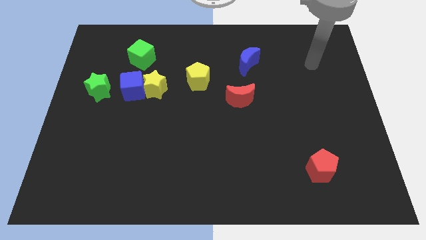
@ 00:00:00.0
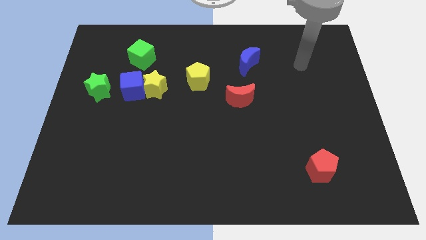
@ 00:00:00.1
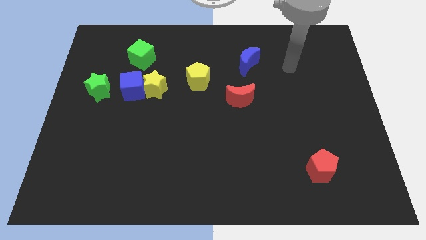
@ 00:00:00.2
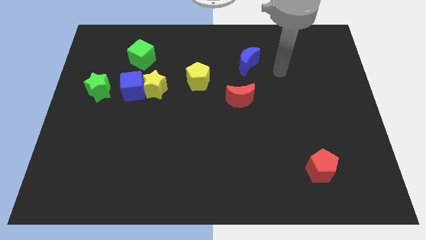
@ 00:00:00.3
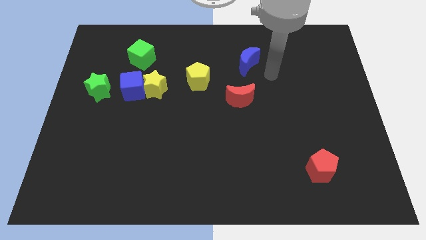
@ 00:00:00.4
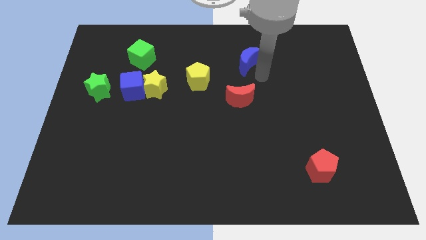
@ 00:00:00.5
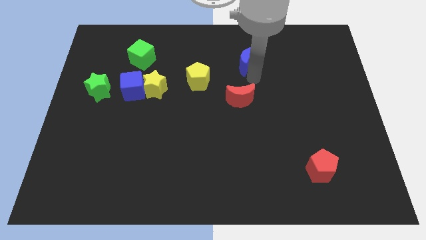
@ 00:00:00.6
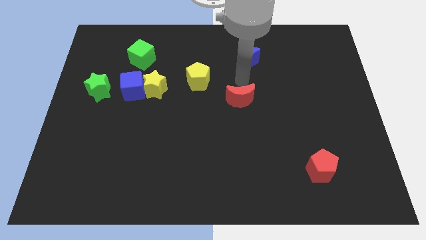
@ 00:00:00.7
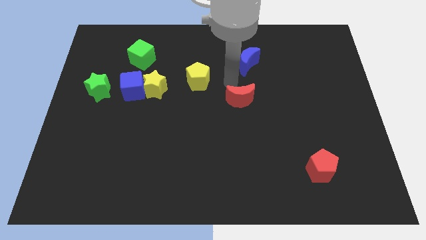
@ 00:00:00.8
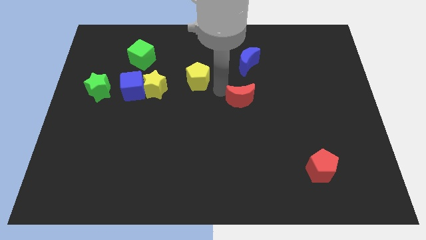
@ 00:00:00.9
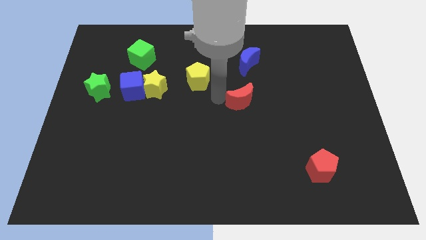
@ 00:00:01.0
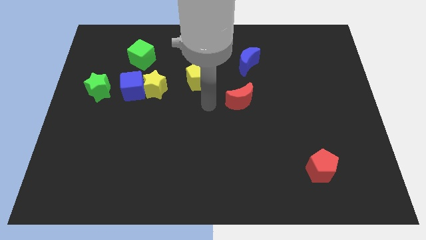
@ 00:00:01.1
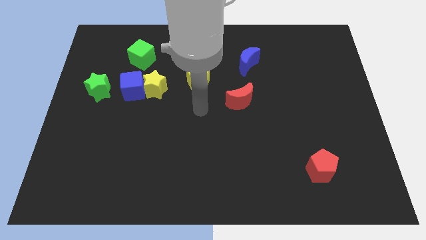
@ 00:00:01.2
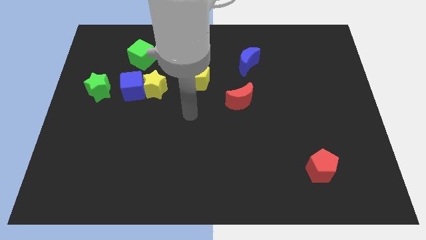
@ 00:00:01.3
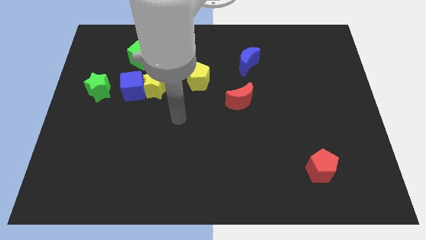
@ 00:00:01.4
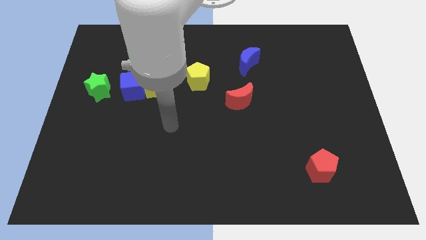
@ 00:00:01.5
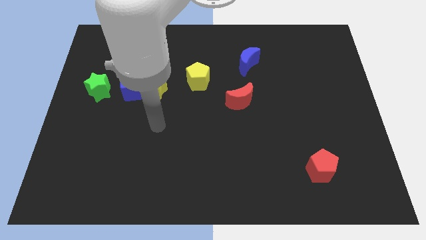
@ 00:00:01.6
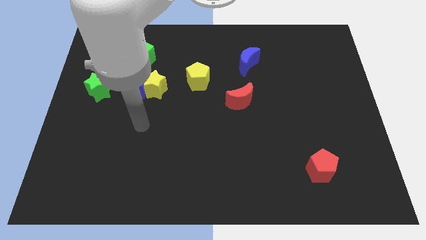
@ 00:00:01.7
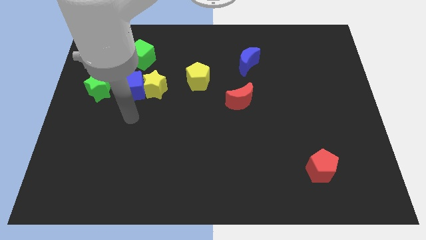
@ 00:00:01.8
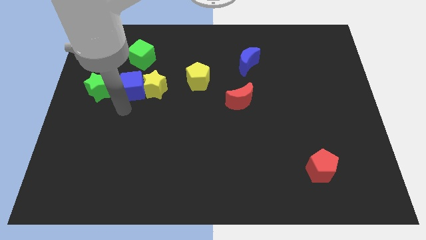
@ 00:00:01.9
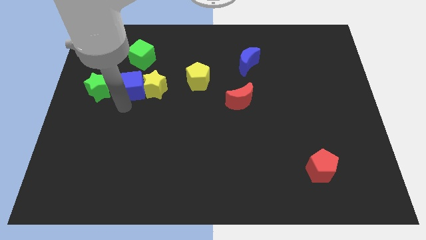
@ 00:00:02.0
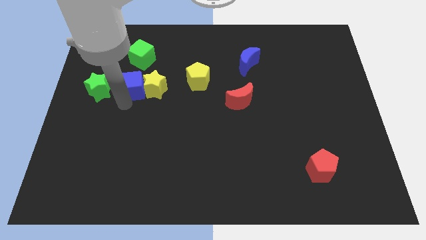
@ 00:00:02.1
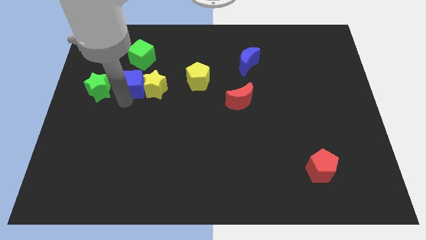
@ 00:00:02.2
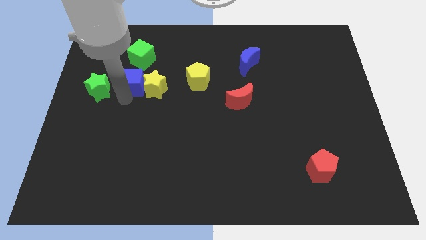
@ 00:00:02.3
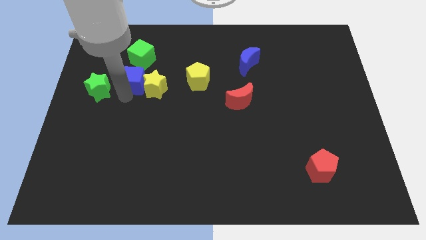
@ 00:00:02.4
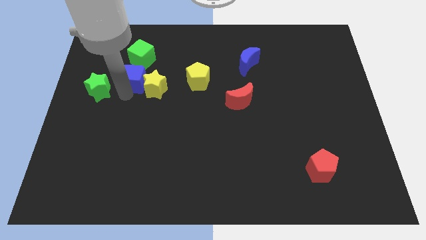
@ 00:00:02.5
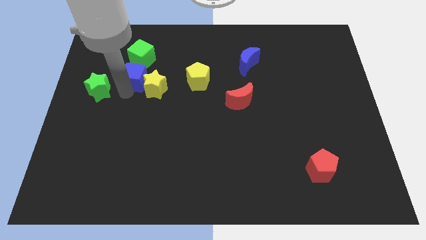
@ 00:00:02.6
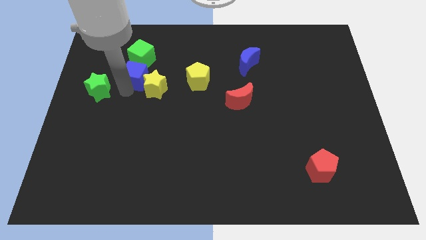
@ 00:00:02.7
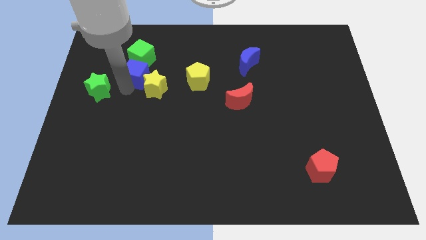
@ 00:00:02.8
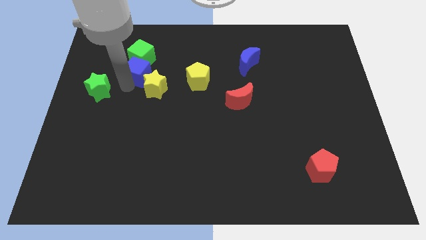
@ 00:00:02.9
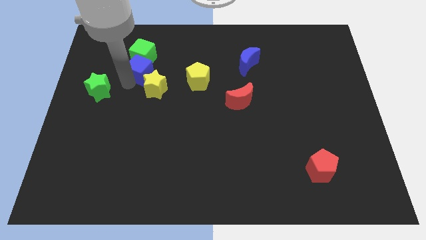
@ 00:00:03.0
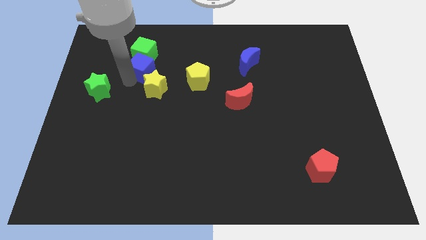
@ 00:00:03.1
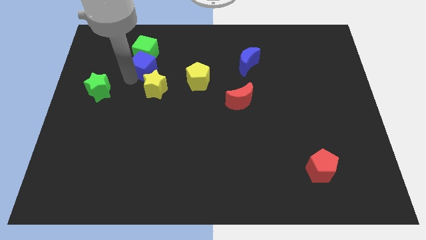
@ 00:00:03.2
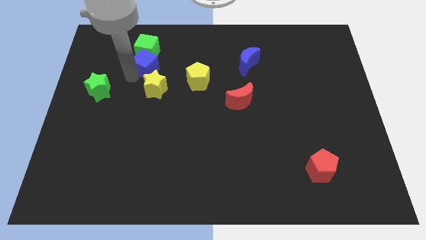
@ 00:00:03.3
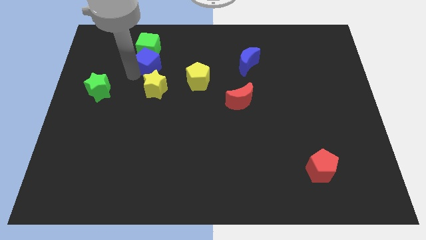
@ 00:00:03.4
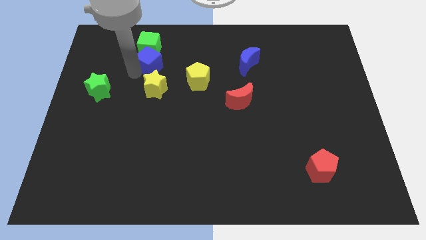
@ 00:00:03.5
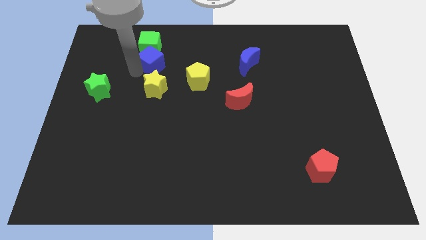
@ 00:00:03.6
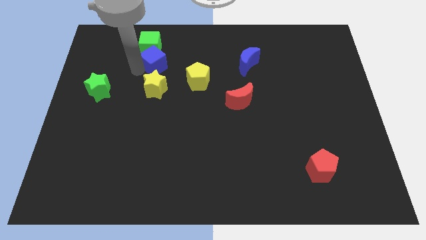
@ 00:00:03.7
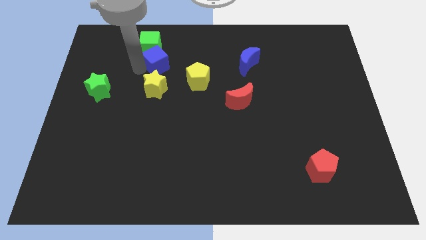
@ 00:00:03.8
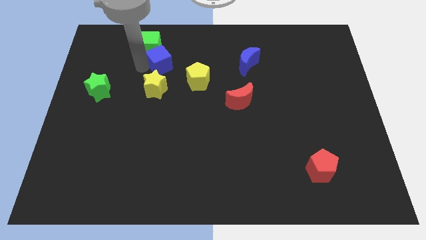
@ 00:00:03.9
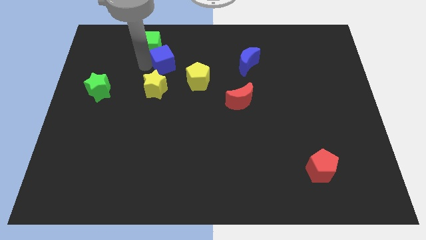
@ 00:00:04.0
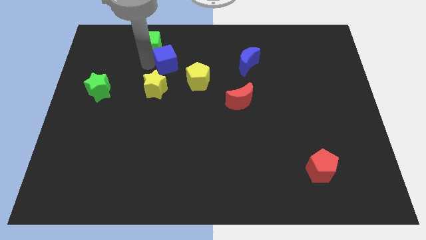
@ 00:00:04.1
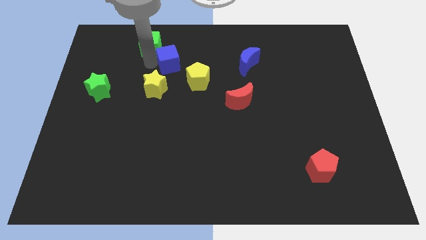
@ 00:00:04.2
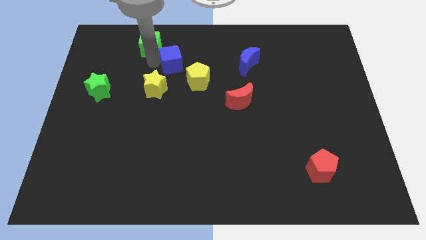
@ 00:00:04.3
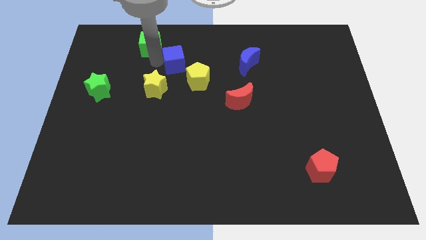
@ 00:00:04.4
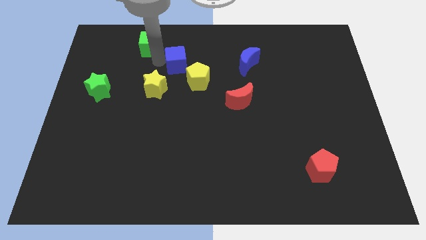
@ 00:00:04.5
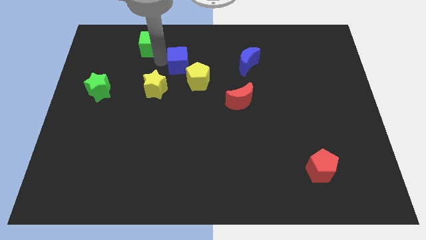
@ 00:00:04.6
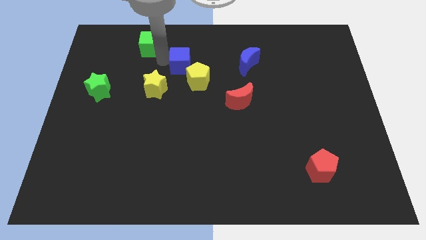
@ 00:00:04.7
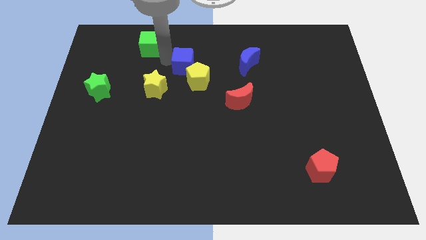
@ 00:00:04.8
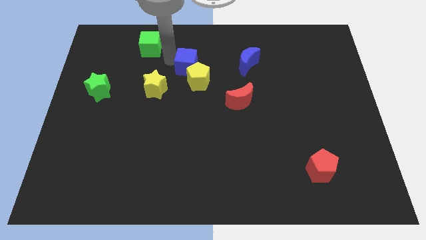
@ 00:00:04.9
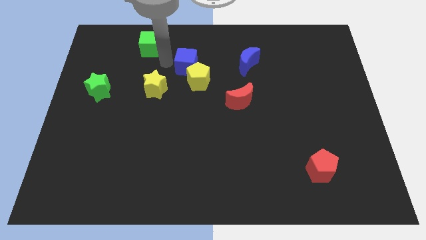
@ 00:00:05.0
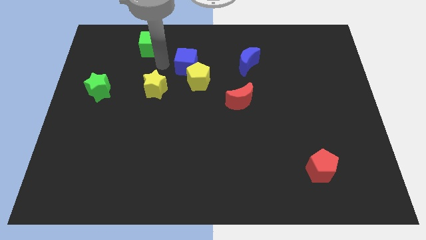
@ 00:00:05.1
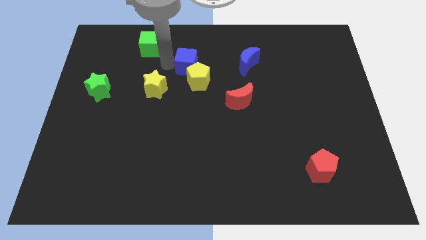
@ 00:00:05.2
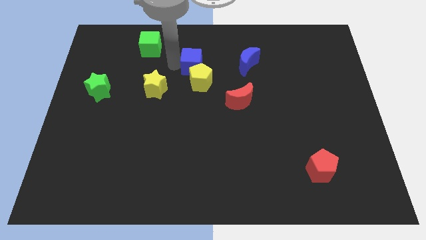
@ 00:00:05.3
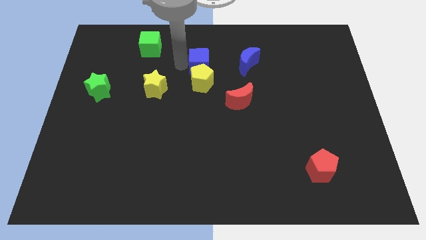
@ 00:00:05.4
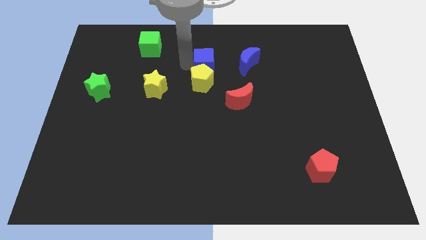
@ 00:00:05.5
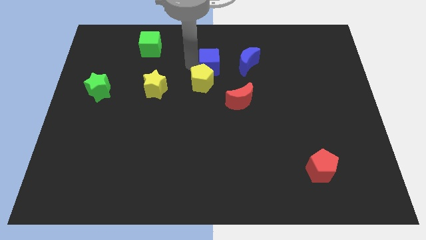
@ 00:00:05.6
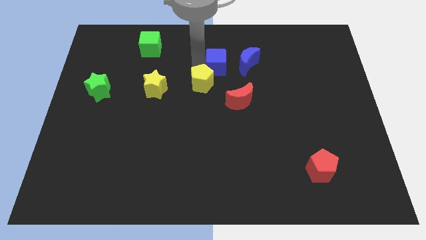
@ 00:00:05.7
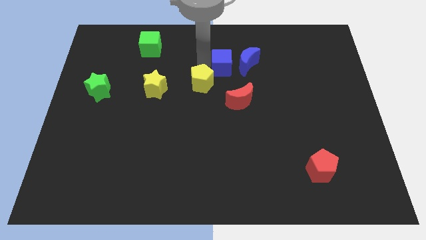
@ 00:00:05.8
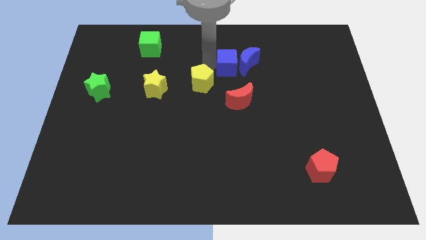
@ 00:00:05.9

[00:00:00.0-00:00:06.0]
slide the blue cube close to the blue moon

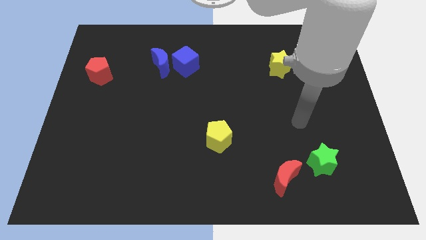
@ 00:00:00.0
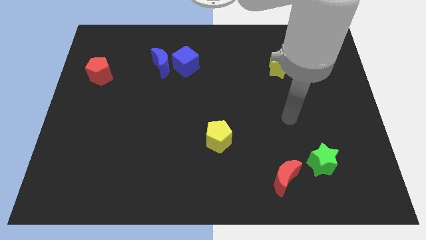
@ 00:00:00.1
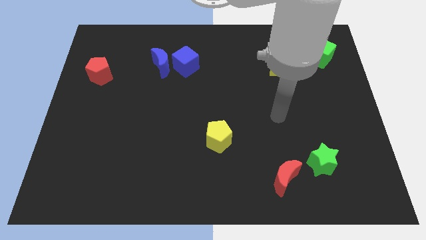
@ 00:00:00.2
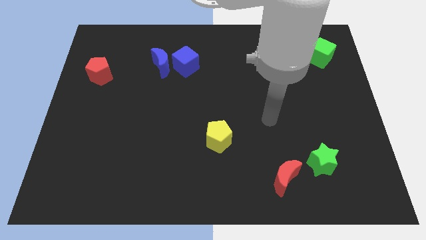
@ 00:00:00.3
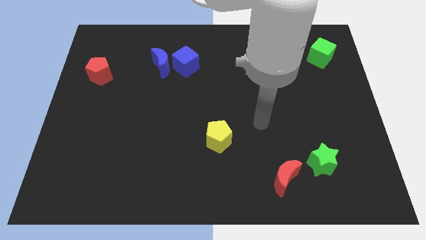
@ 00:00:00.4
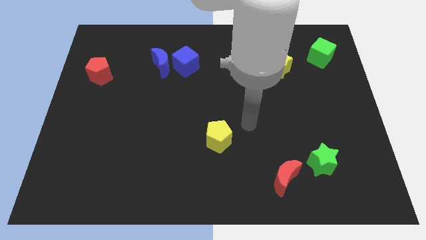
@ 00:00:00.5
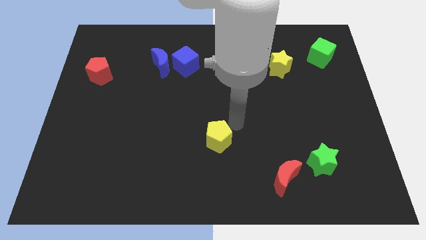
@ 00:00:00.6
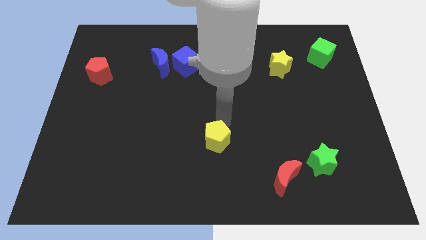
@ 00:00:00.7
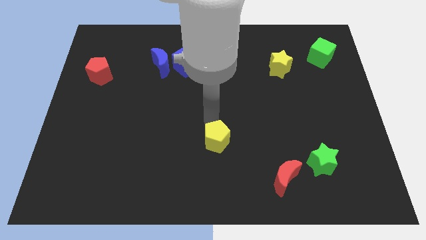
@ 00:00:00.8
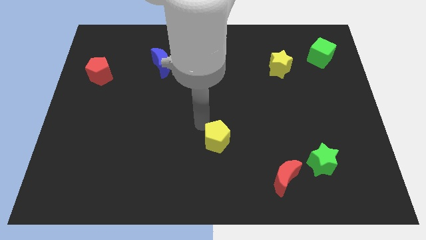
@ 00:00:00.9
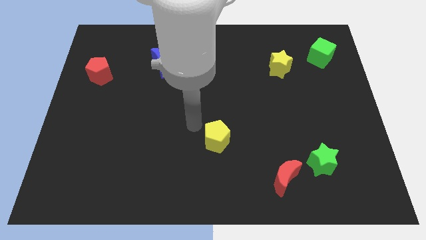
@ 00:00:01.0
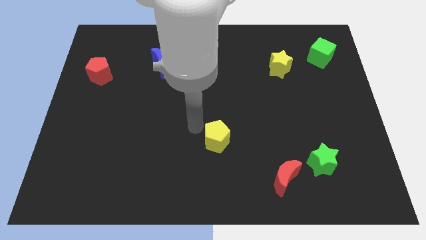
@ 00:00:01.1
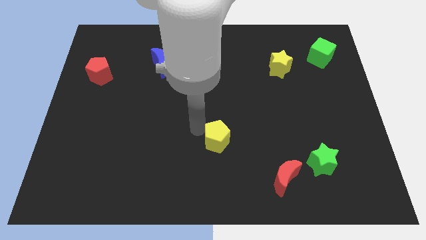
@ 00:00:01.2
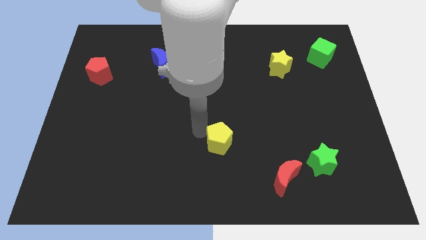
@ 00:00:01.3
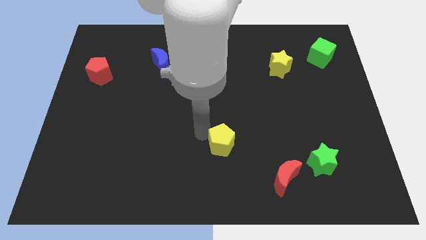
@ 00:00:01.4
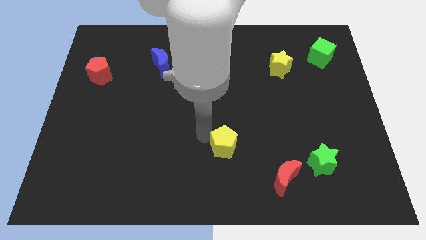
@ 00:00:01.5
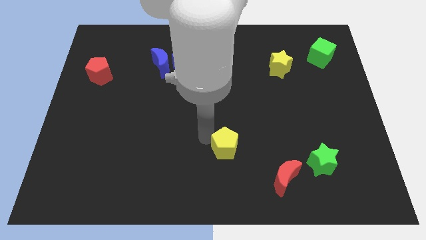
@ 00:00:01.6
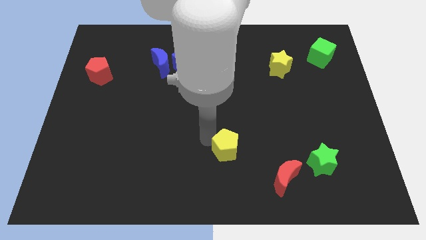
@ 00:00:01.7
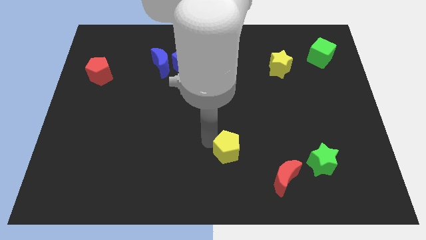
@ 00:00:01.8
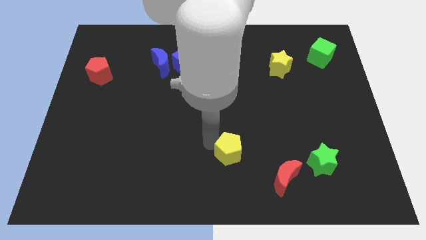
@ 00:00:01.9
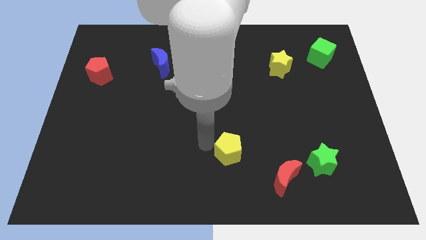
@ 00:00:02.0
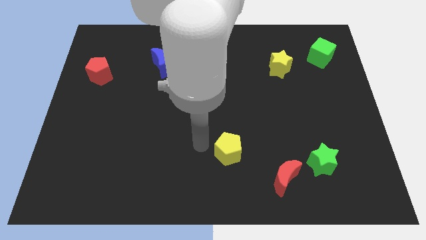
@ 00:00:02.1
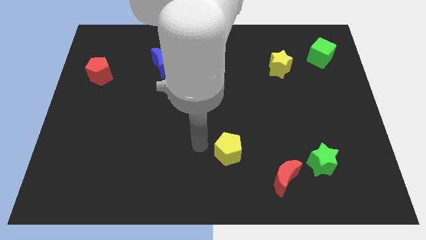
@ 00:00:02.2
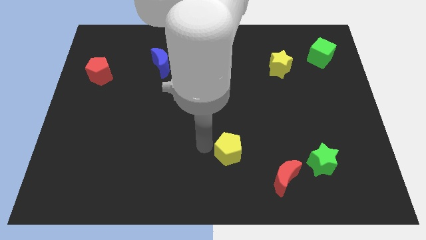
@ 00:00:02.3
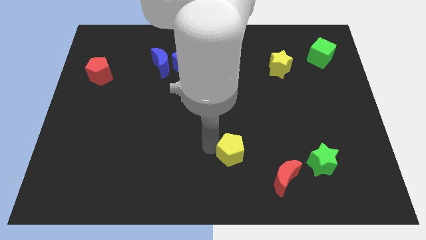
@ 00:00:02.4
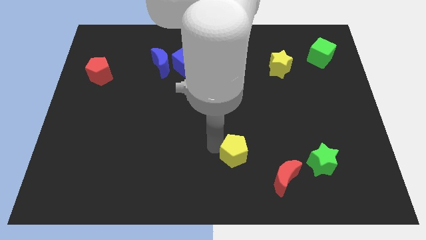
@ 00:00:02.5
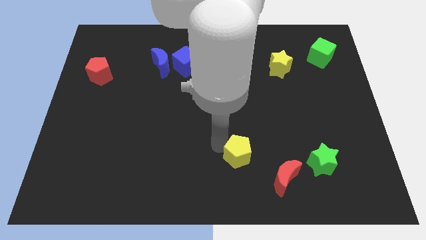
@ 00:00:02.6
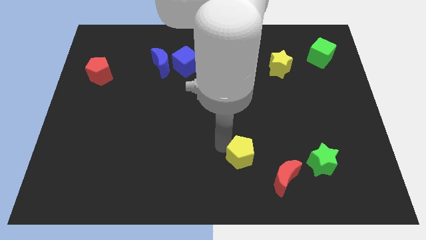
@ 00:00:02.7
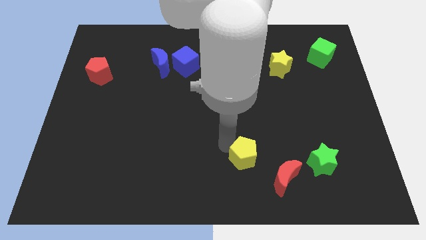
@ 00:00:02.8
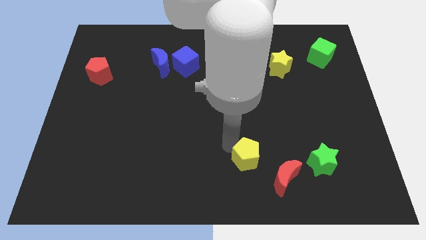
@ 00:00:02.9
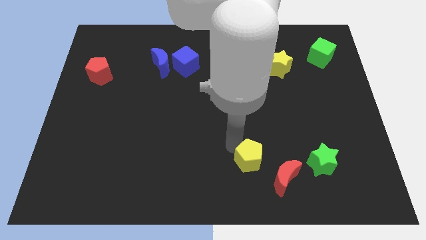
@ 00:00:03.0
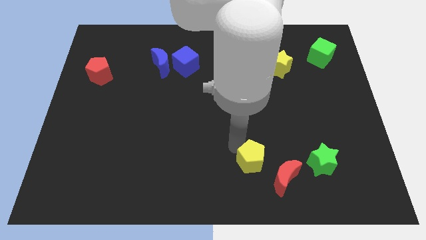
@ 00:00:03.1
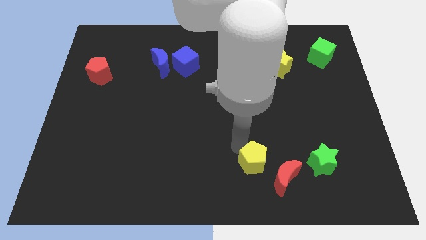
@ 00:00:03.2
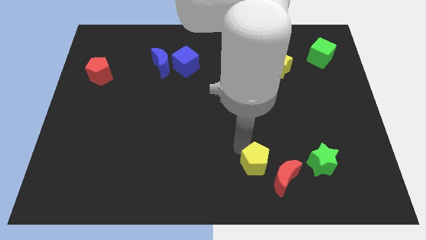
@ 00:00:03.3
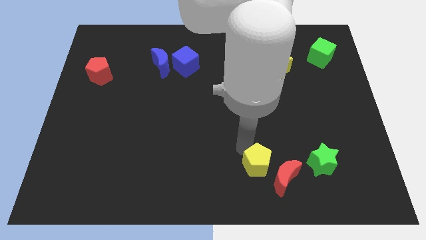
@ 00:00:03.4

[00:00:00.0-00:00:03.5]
slide the yellow pentagon next to the red moon
